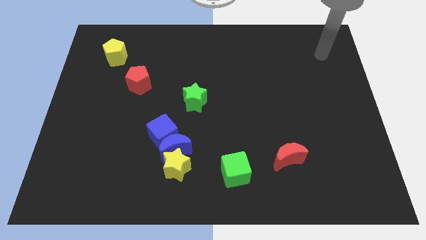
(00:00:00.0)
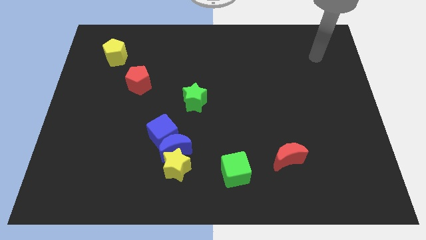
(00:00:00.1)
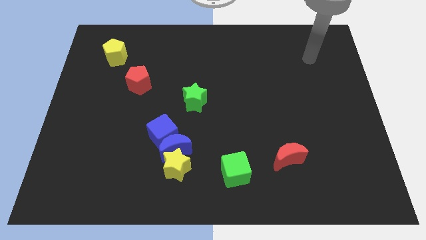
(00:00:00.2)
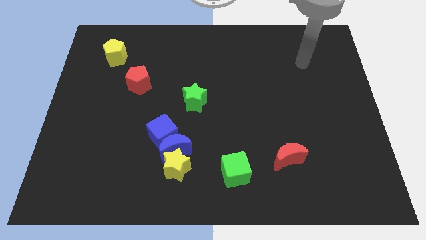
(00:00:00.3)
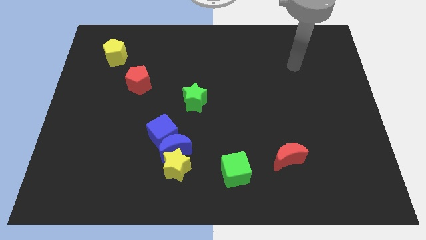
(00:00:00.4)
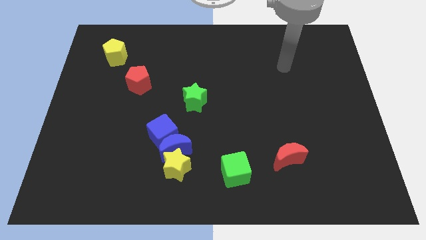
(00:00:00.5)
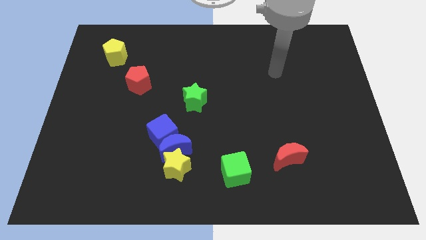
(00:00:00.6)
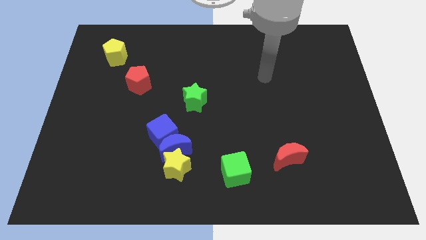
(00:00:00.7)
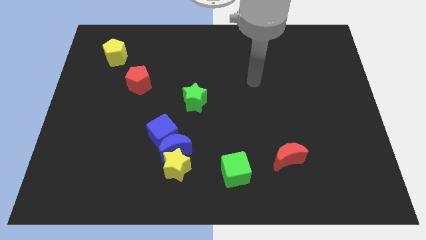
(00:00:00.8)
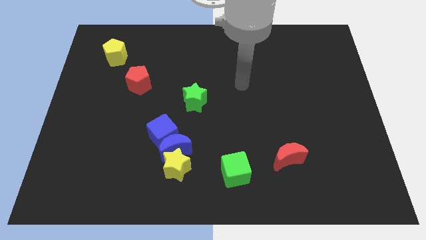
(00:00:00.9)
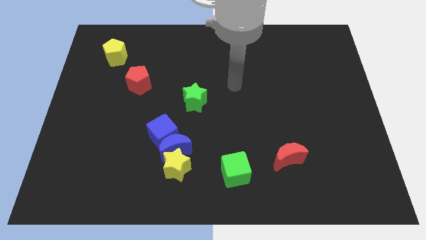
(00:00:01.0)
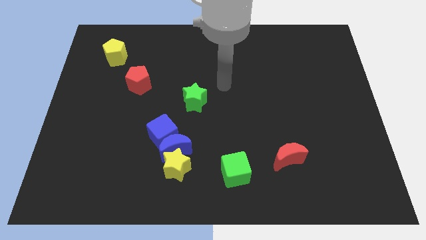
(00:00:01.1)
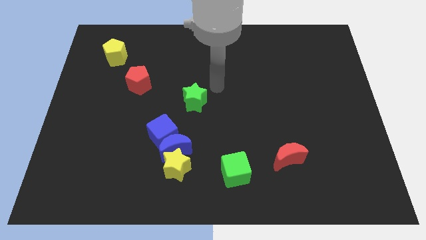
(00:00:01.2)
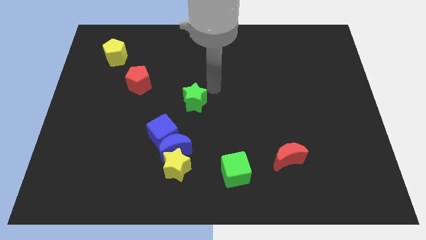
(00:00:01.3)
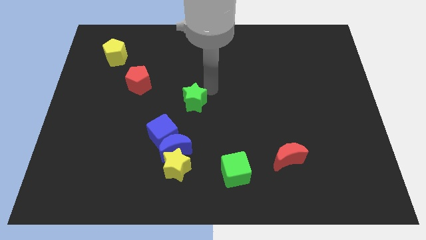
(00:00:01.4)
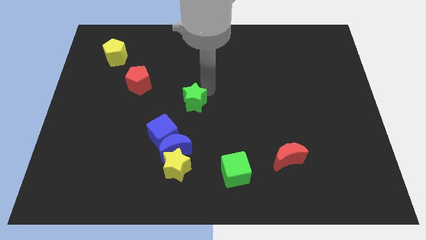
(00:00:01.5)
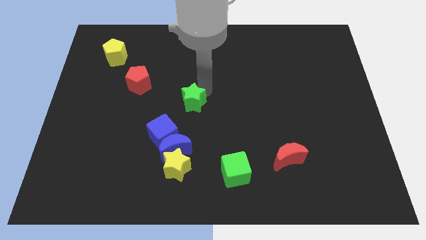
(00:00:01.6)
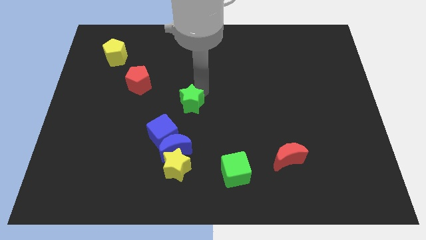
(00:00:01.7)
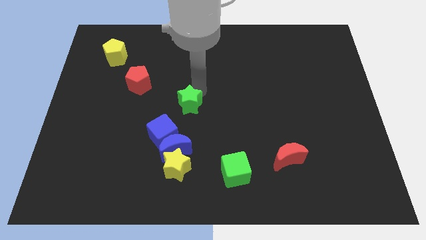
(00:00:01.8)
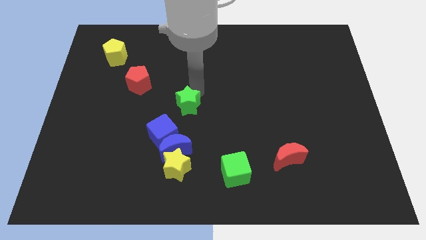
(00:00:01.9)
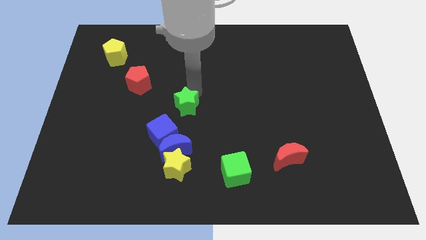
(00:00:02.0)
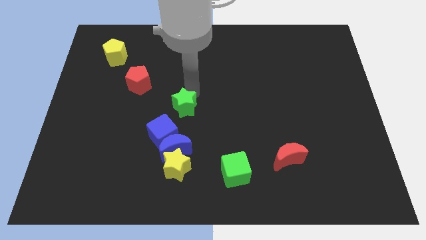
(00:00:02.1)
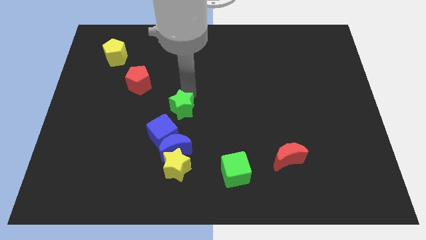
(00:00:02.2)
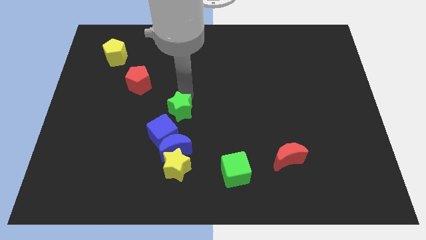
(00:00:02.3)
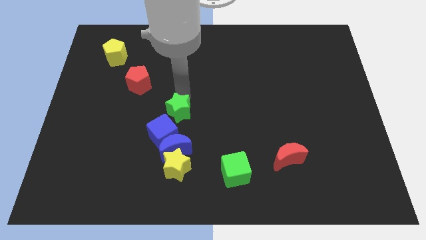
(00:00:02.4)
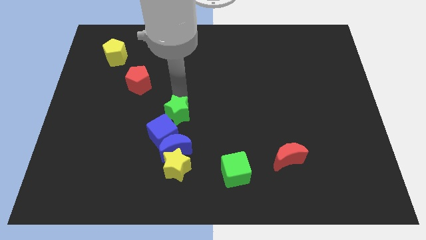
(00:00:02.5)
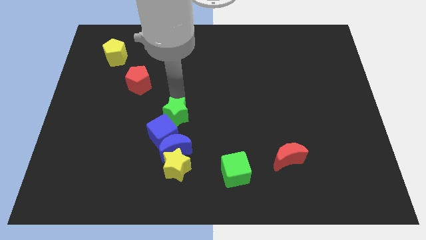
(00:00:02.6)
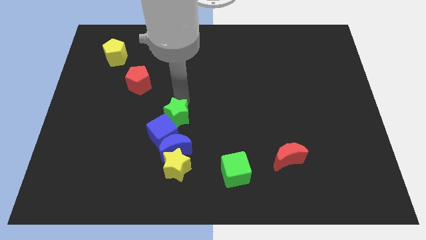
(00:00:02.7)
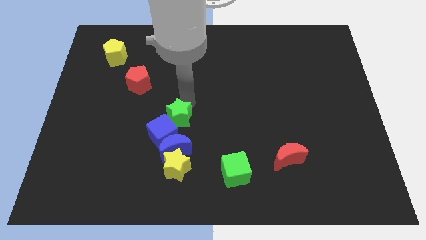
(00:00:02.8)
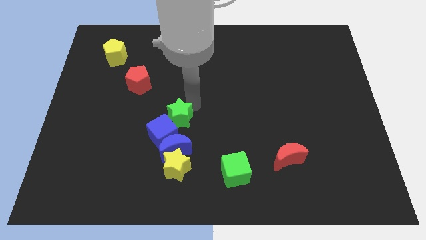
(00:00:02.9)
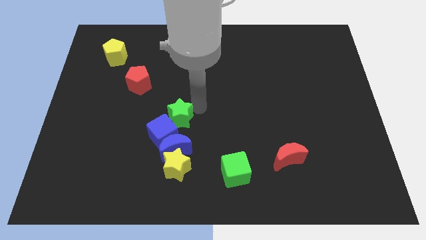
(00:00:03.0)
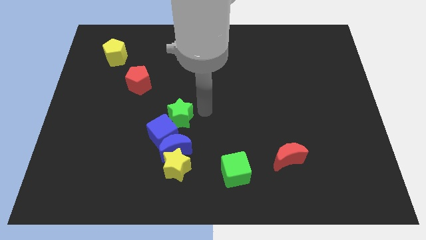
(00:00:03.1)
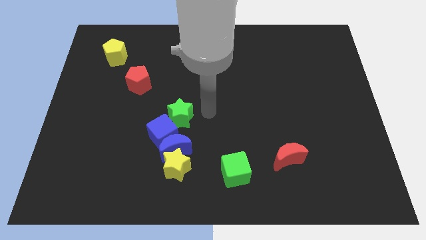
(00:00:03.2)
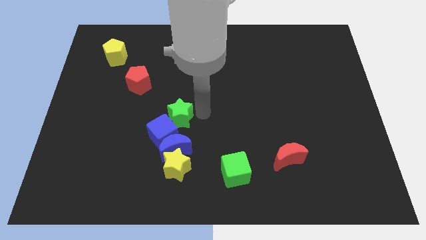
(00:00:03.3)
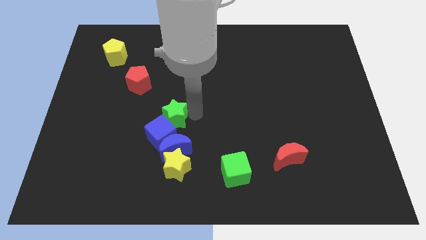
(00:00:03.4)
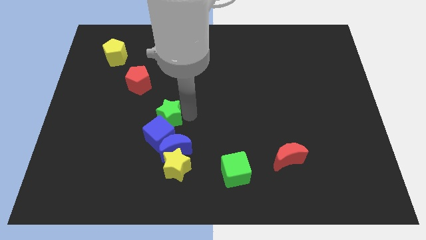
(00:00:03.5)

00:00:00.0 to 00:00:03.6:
push the green star downwards and then to the left a bit

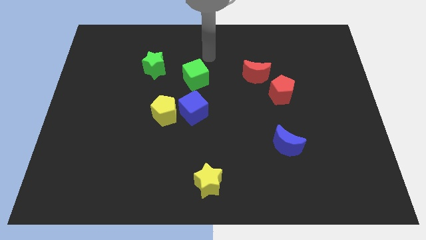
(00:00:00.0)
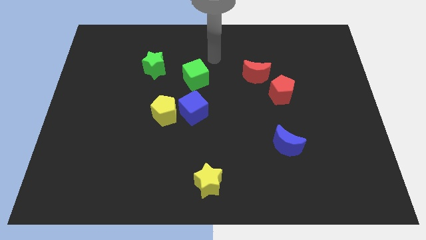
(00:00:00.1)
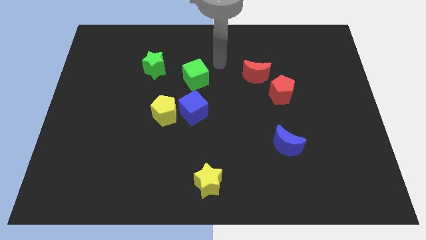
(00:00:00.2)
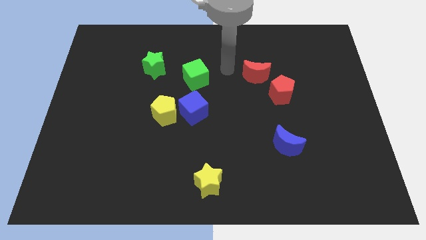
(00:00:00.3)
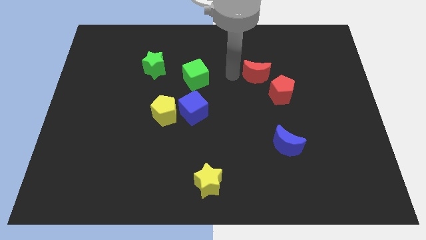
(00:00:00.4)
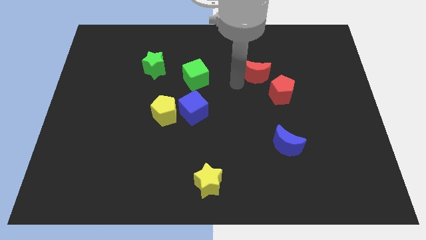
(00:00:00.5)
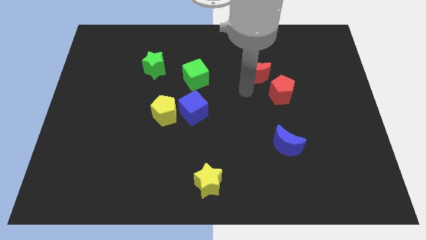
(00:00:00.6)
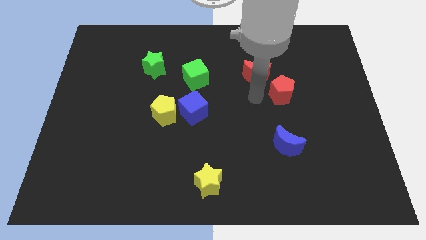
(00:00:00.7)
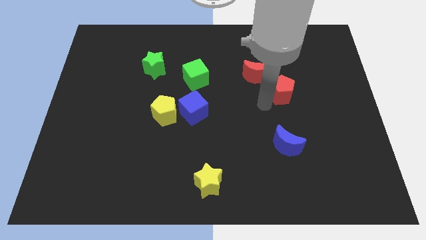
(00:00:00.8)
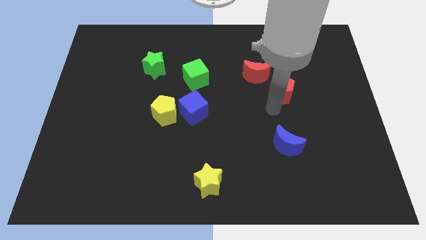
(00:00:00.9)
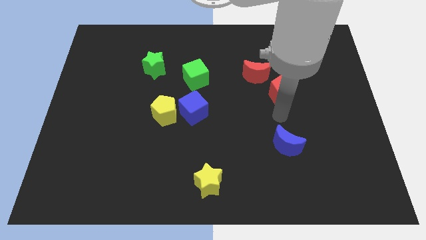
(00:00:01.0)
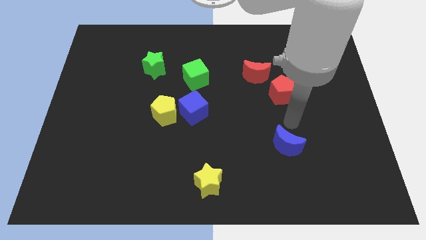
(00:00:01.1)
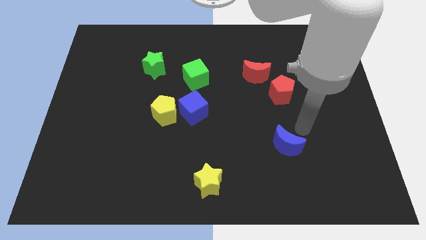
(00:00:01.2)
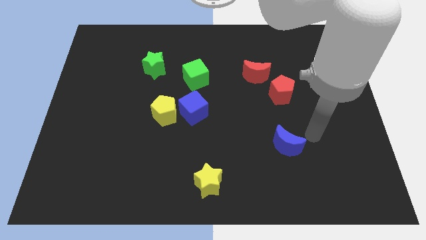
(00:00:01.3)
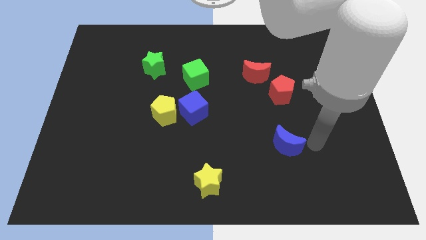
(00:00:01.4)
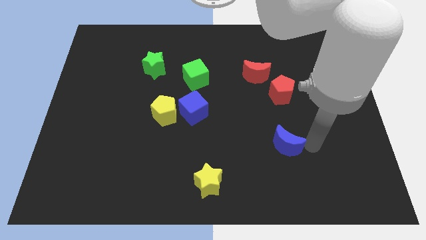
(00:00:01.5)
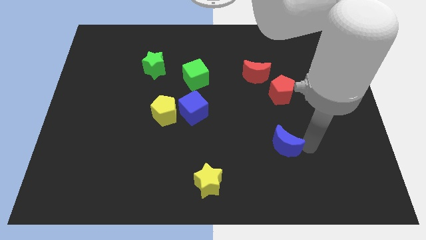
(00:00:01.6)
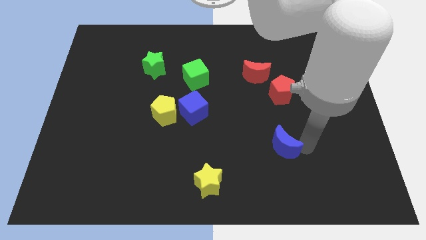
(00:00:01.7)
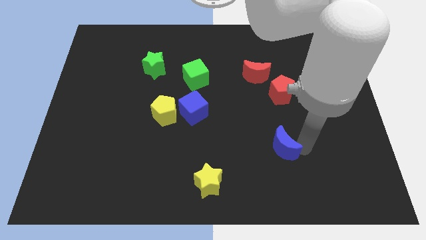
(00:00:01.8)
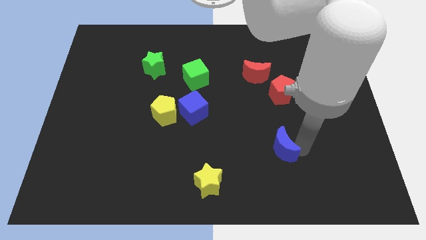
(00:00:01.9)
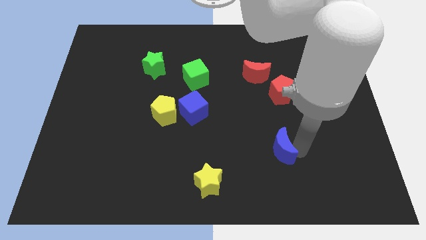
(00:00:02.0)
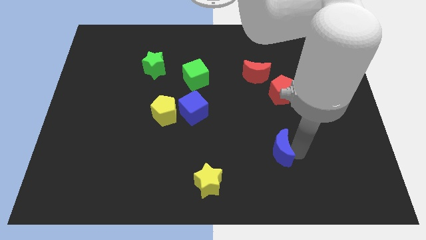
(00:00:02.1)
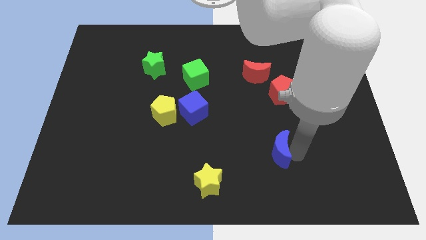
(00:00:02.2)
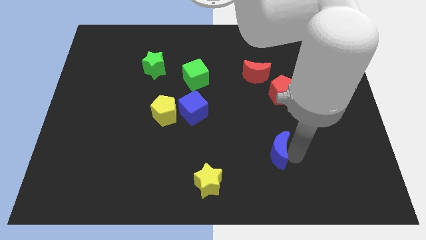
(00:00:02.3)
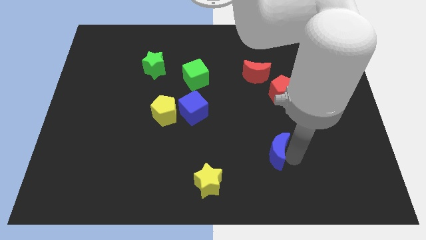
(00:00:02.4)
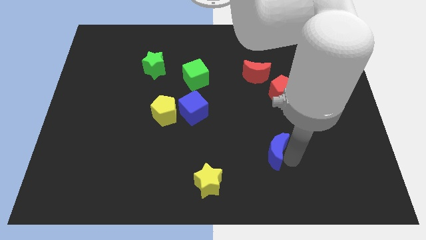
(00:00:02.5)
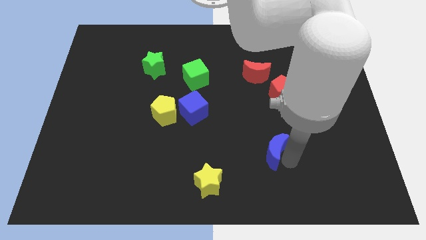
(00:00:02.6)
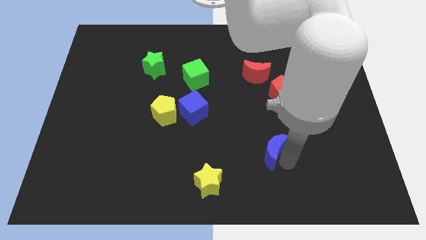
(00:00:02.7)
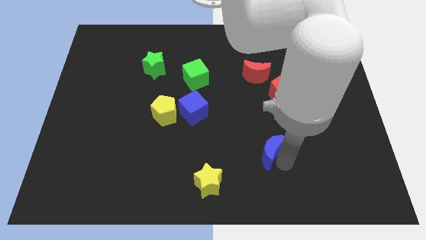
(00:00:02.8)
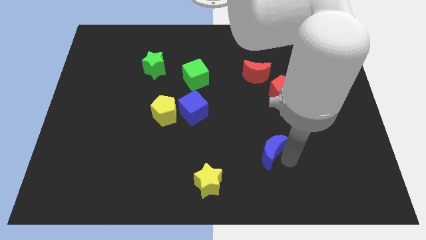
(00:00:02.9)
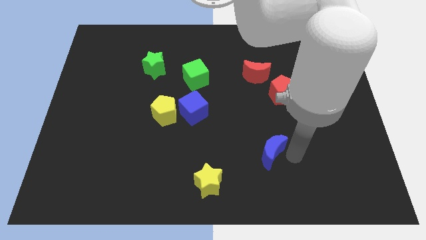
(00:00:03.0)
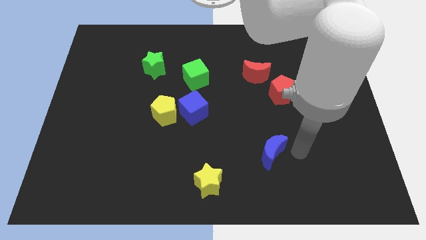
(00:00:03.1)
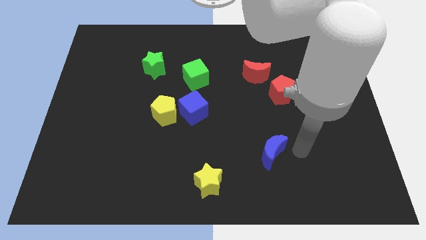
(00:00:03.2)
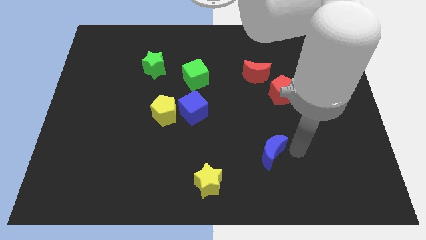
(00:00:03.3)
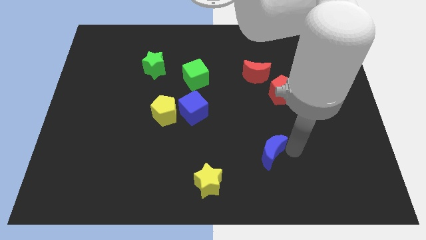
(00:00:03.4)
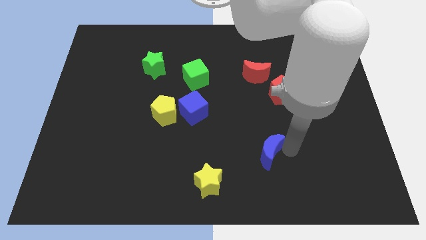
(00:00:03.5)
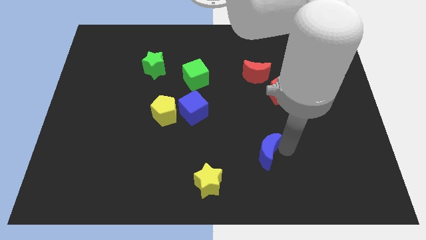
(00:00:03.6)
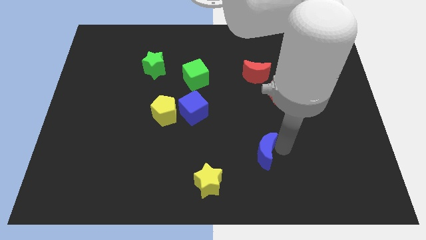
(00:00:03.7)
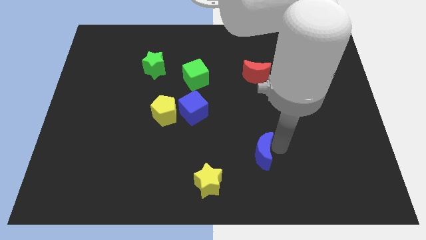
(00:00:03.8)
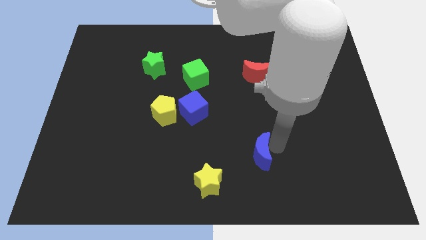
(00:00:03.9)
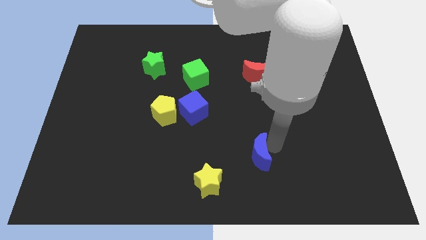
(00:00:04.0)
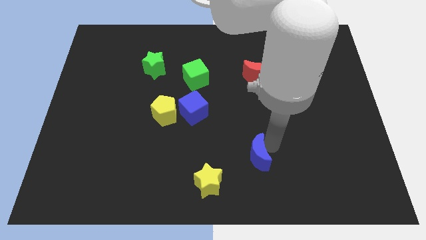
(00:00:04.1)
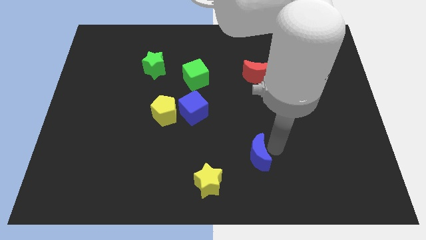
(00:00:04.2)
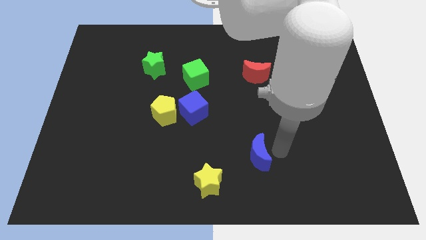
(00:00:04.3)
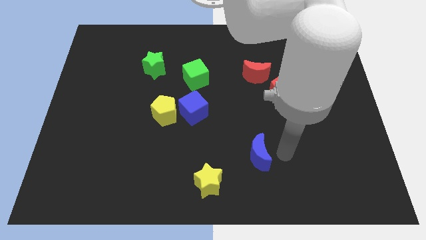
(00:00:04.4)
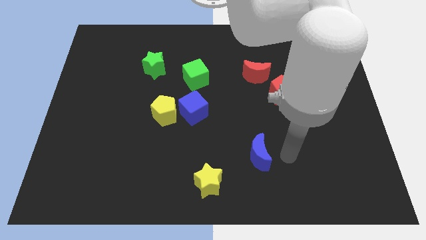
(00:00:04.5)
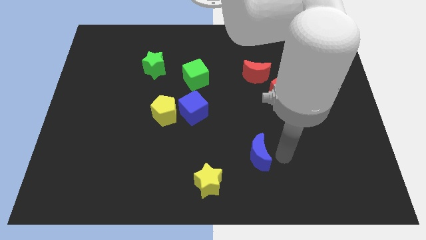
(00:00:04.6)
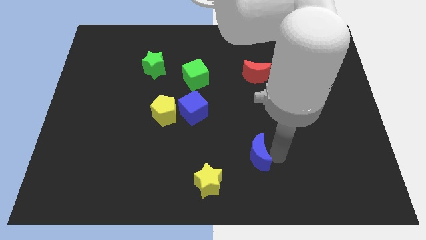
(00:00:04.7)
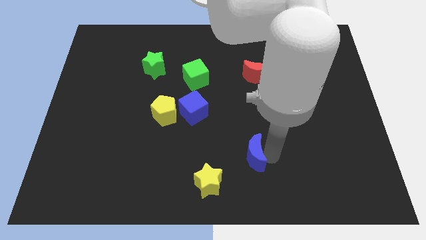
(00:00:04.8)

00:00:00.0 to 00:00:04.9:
slide the blue moon slightly left
